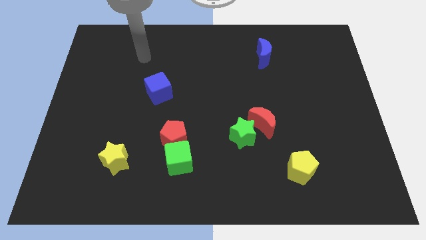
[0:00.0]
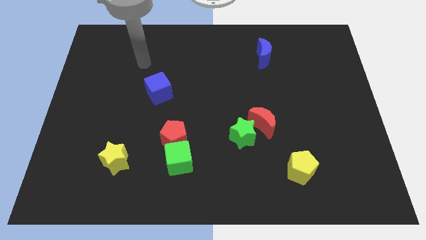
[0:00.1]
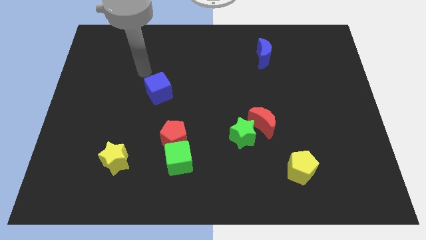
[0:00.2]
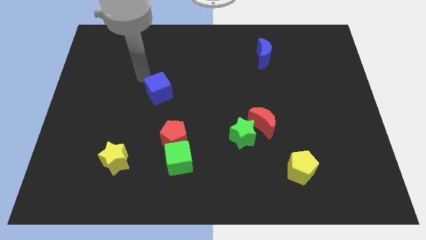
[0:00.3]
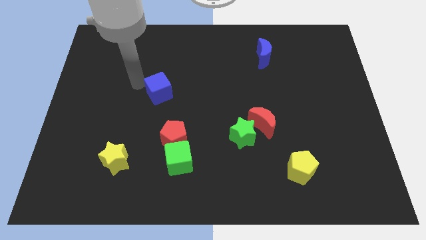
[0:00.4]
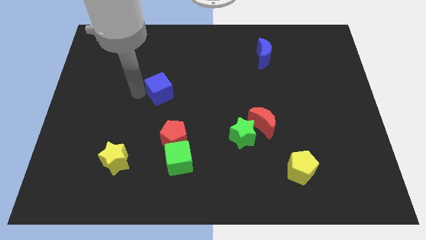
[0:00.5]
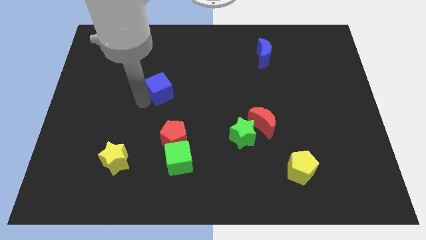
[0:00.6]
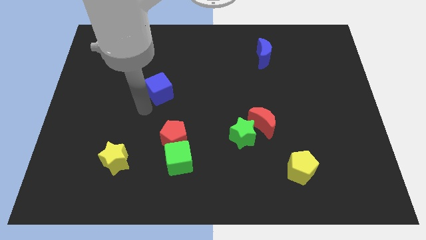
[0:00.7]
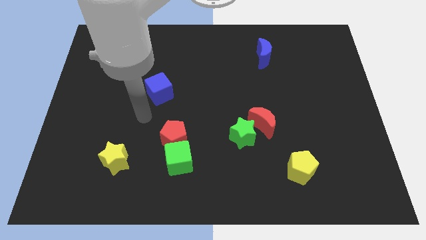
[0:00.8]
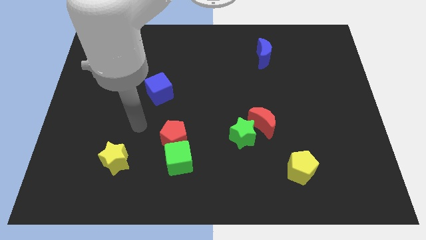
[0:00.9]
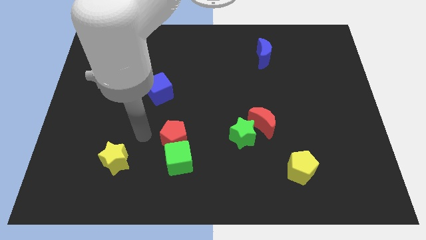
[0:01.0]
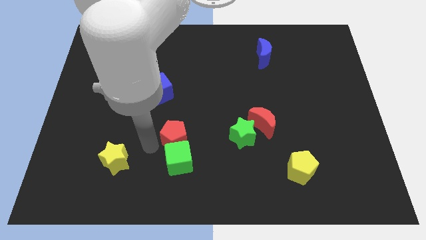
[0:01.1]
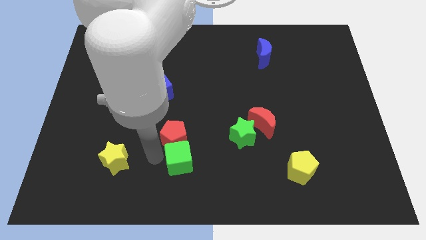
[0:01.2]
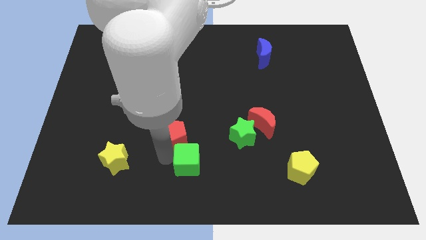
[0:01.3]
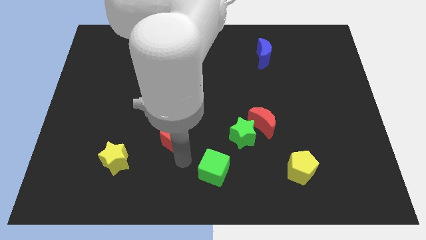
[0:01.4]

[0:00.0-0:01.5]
separate the red pentagon from the green cube

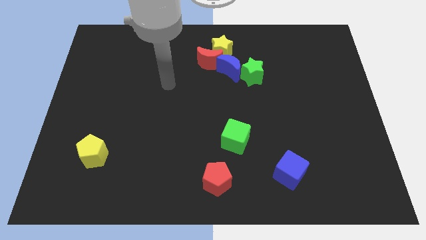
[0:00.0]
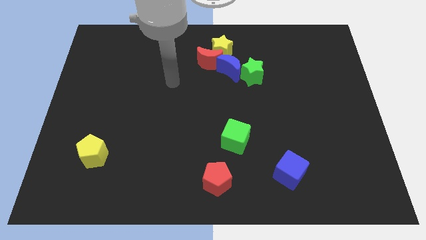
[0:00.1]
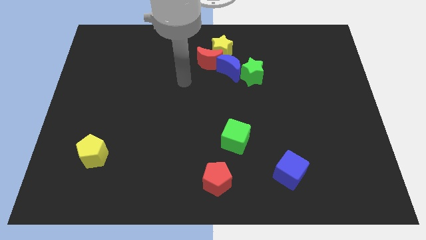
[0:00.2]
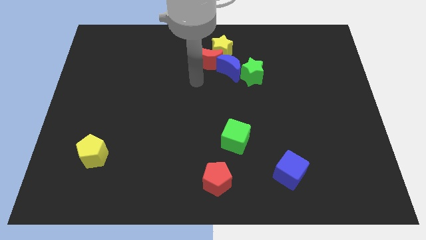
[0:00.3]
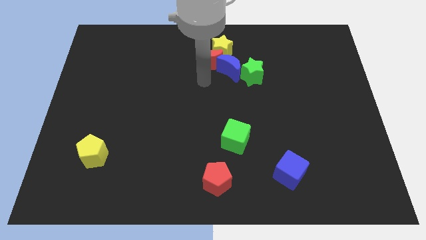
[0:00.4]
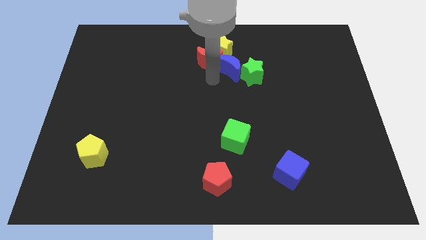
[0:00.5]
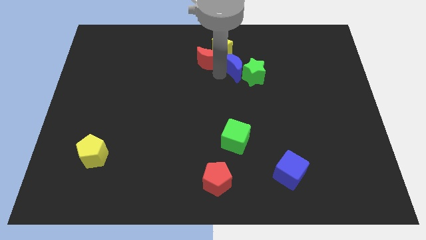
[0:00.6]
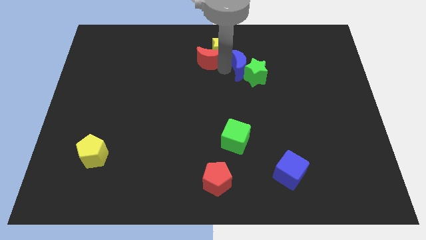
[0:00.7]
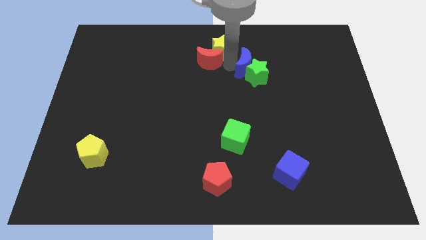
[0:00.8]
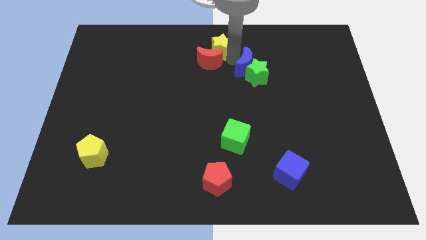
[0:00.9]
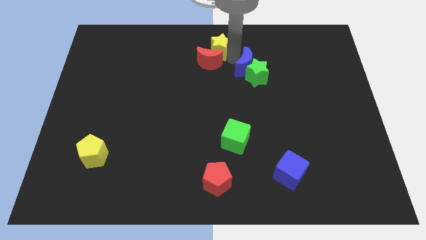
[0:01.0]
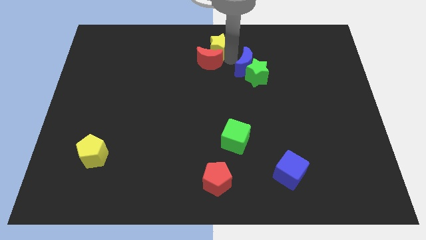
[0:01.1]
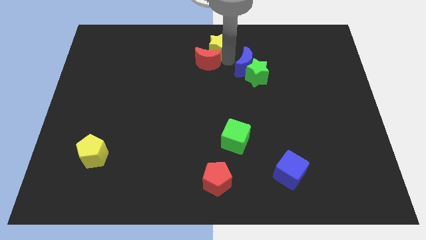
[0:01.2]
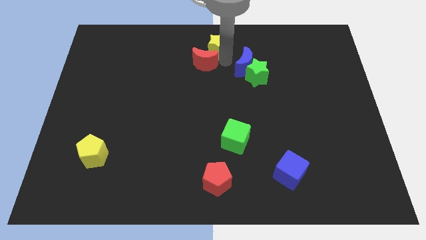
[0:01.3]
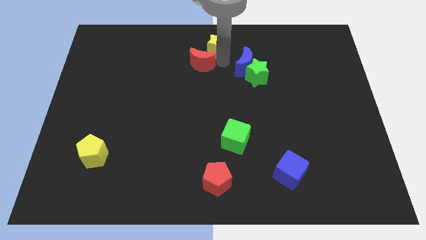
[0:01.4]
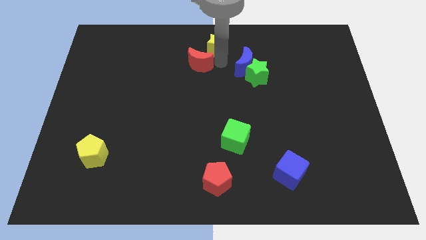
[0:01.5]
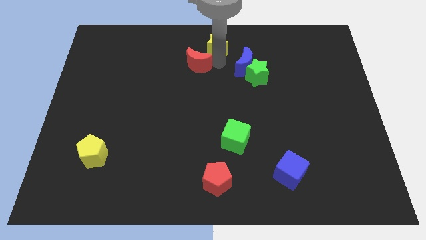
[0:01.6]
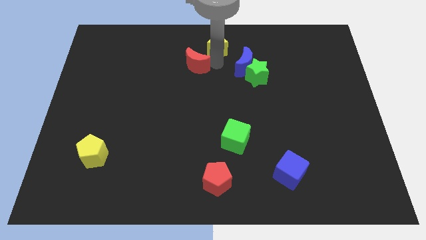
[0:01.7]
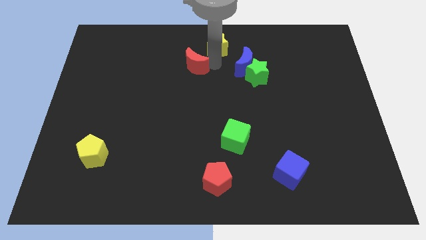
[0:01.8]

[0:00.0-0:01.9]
separate the red moon from the yellow star and blue moon

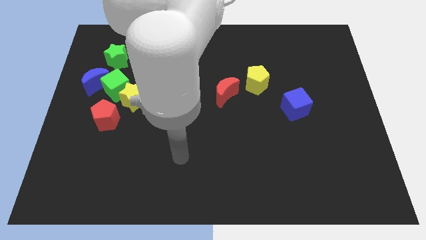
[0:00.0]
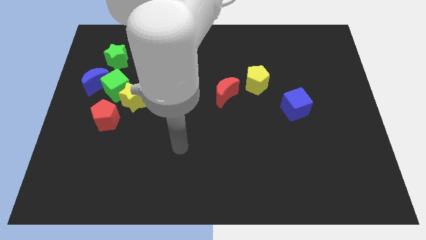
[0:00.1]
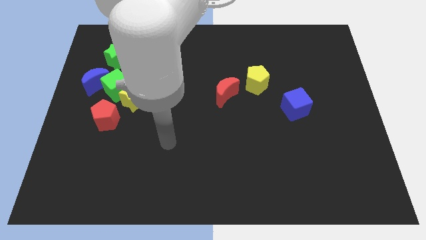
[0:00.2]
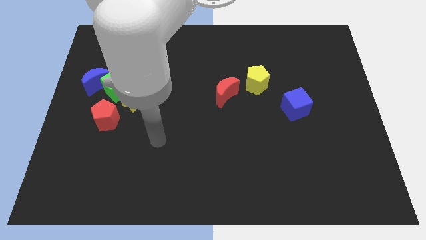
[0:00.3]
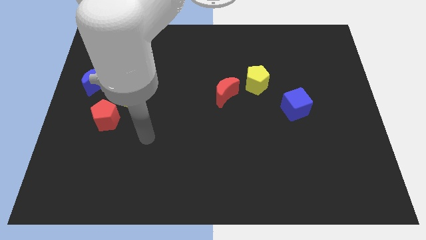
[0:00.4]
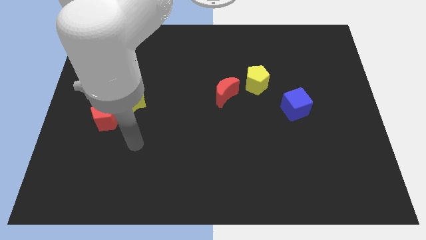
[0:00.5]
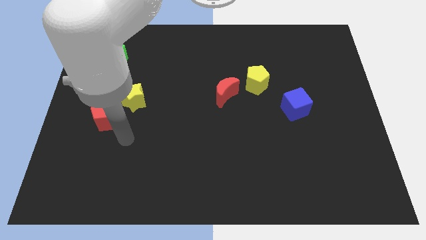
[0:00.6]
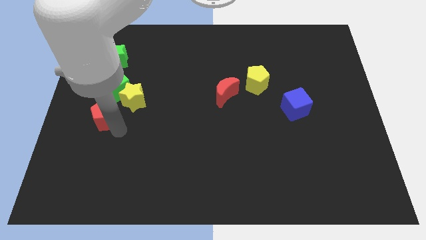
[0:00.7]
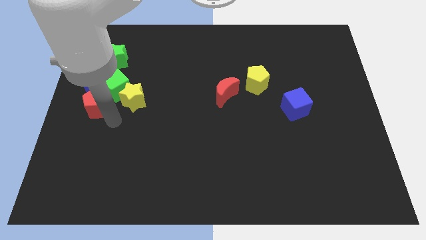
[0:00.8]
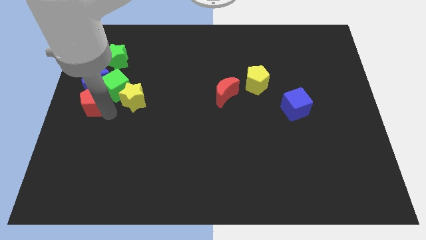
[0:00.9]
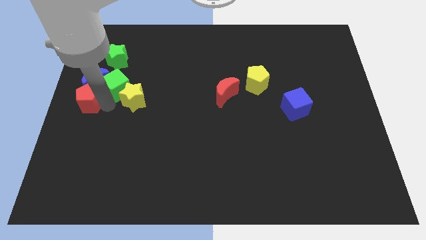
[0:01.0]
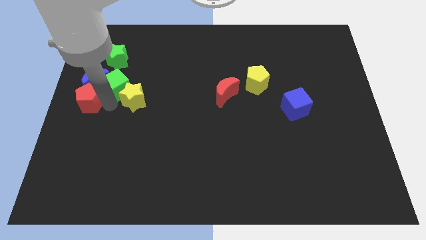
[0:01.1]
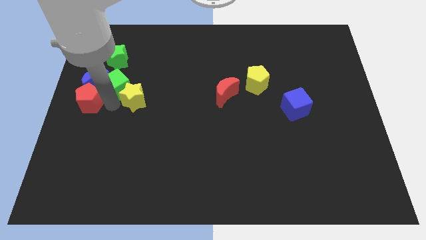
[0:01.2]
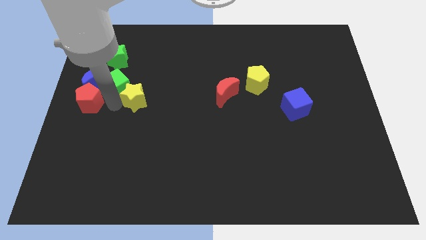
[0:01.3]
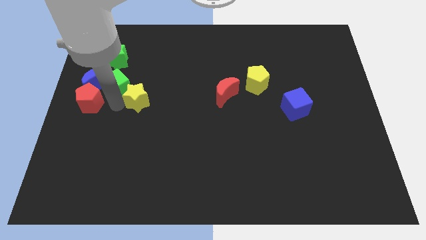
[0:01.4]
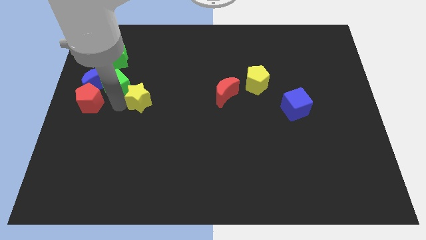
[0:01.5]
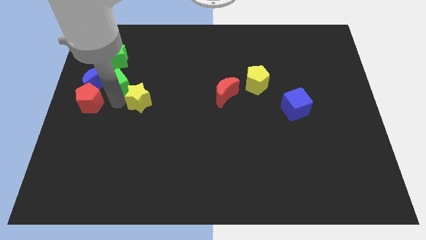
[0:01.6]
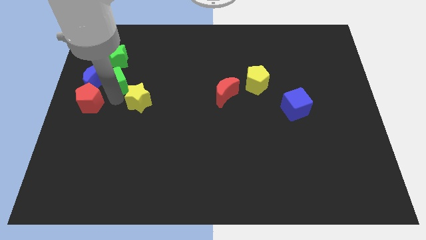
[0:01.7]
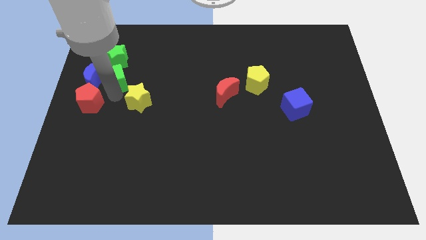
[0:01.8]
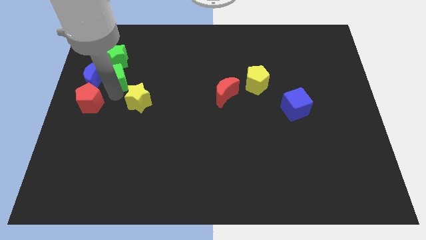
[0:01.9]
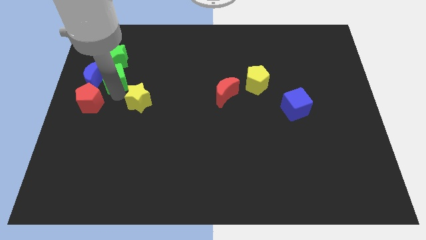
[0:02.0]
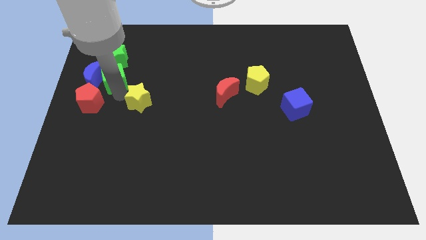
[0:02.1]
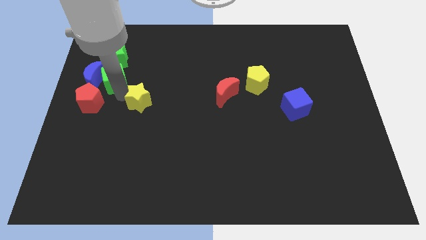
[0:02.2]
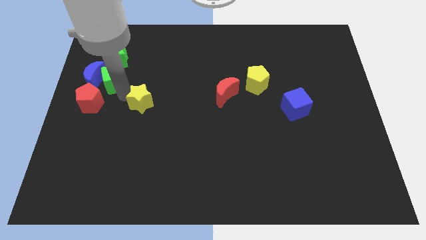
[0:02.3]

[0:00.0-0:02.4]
pull the yellow star apart from the green cube and red pentagon

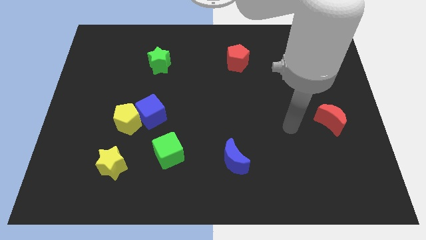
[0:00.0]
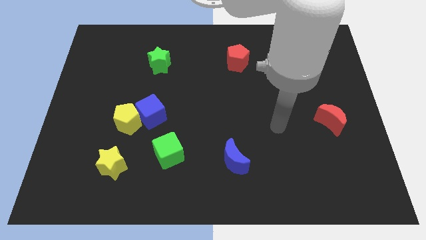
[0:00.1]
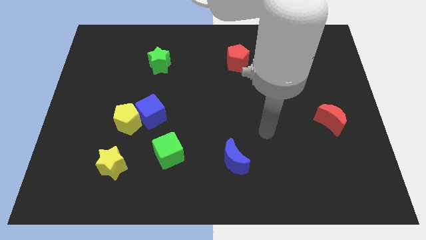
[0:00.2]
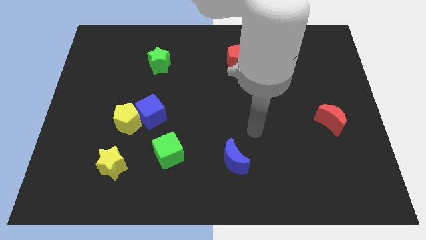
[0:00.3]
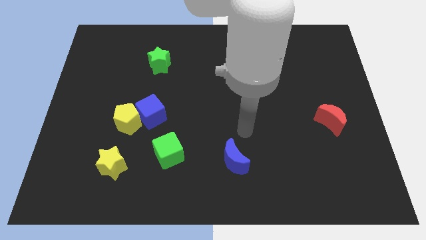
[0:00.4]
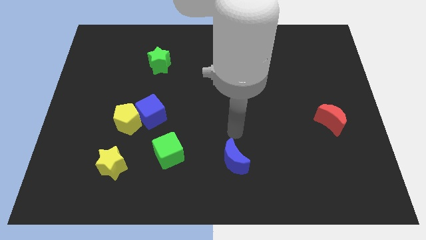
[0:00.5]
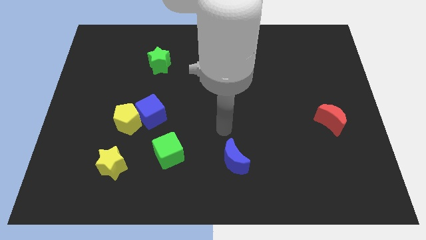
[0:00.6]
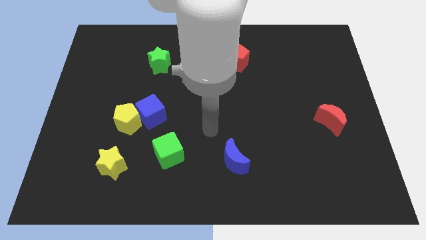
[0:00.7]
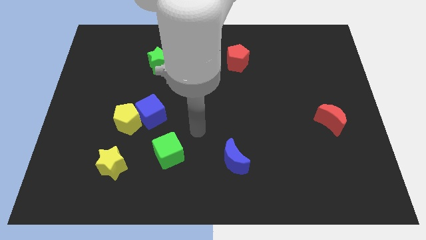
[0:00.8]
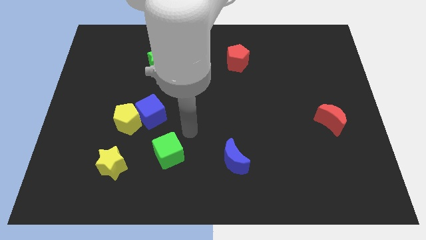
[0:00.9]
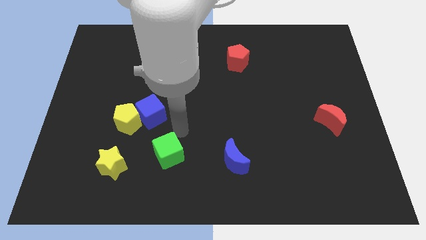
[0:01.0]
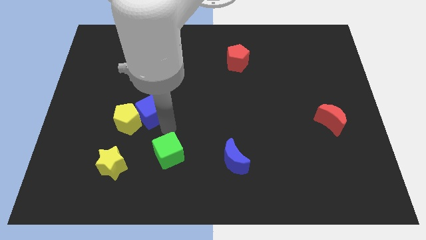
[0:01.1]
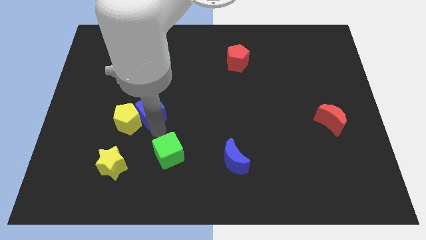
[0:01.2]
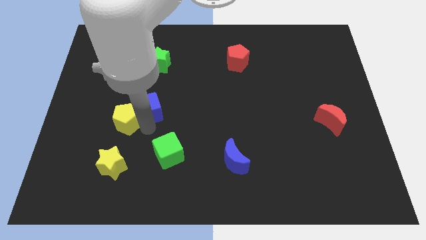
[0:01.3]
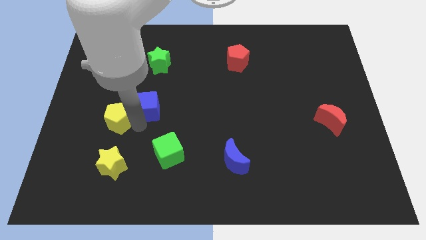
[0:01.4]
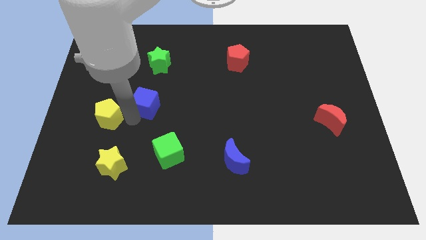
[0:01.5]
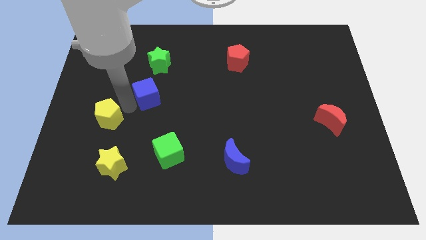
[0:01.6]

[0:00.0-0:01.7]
separate the blue cube from the yellow pentagon

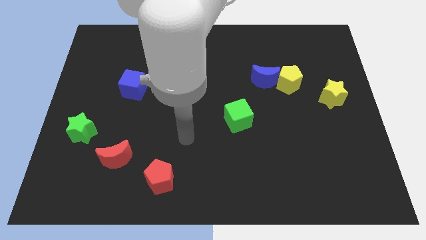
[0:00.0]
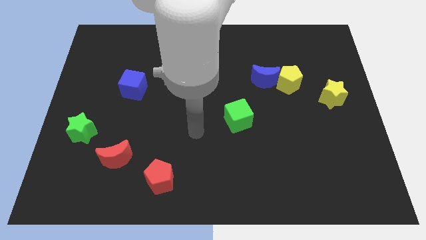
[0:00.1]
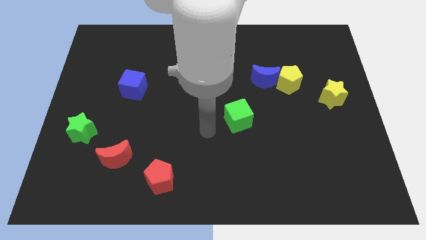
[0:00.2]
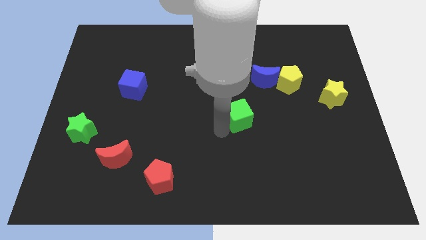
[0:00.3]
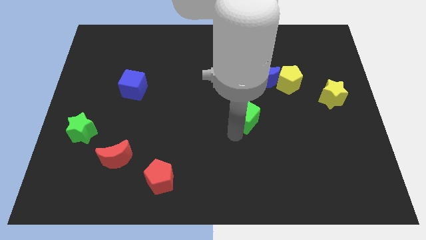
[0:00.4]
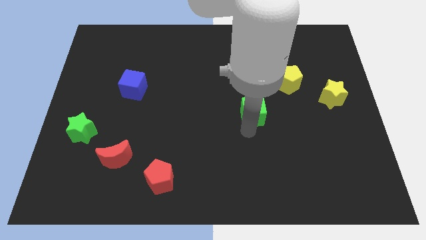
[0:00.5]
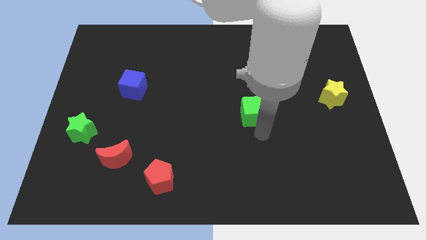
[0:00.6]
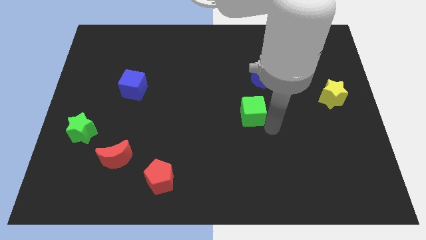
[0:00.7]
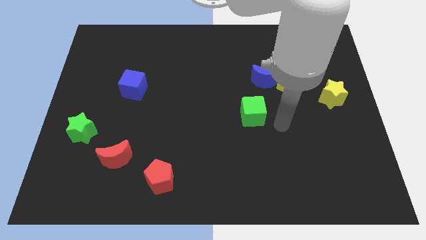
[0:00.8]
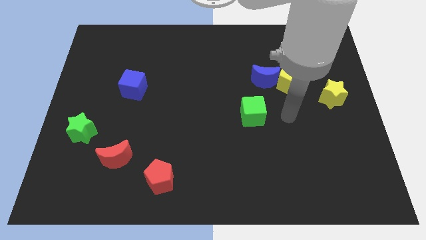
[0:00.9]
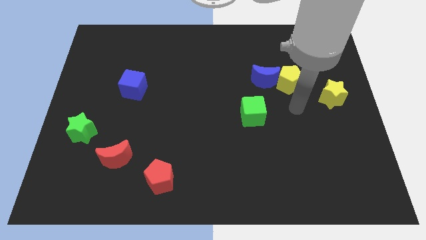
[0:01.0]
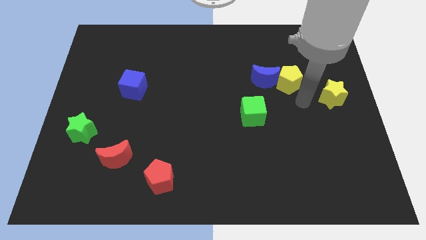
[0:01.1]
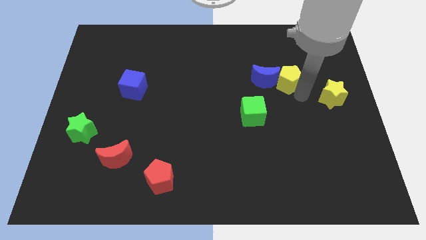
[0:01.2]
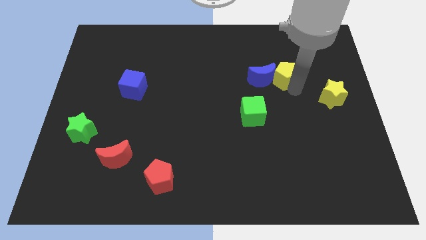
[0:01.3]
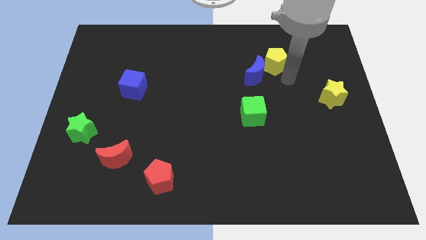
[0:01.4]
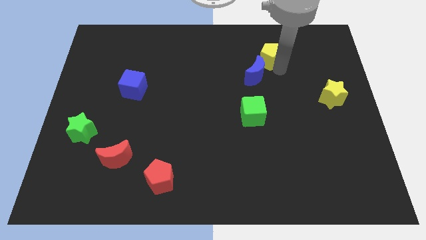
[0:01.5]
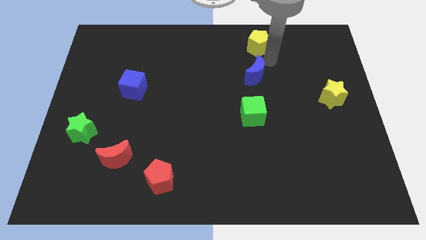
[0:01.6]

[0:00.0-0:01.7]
separate the blue moon from the yellow pentagon
